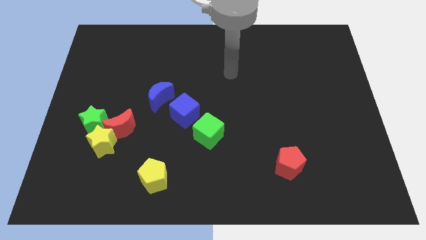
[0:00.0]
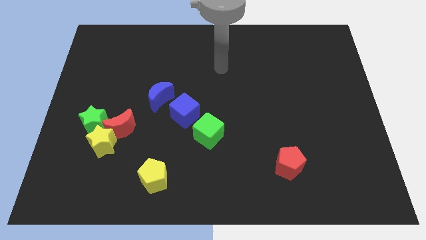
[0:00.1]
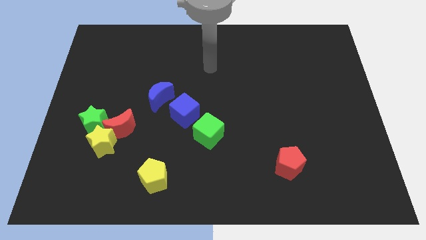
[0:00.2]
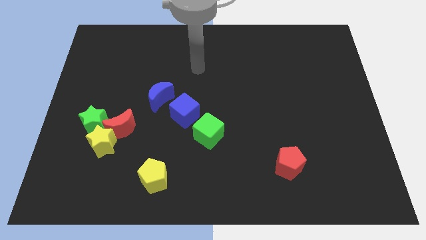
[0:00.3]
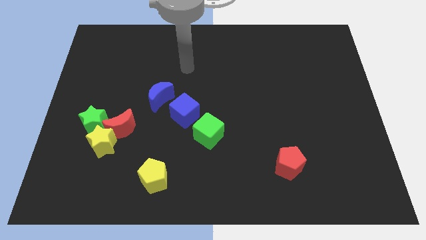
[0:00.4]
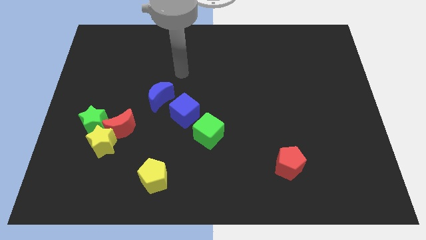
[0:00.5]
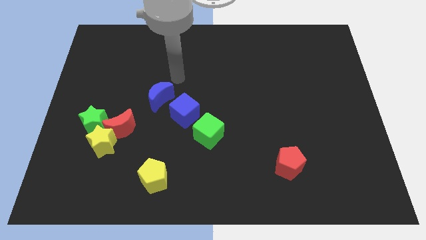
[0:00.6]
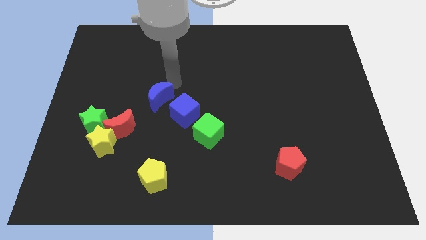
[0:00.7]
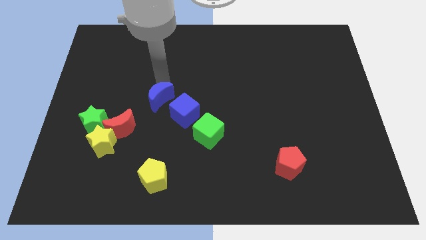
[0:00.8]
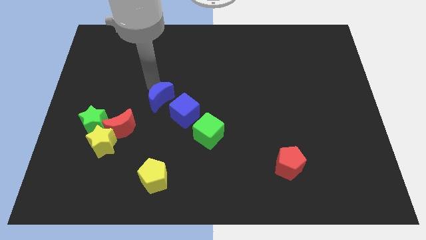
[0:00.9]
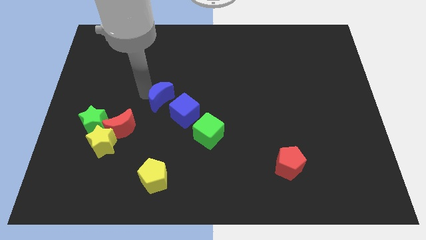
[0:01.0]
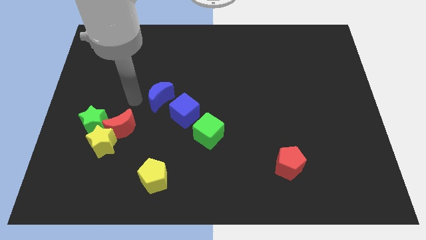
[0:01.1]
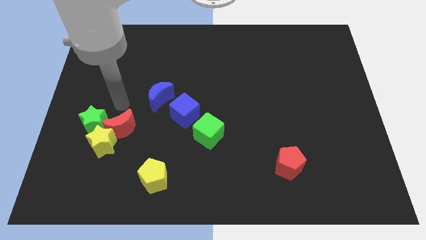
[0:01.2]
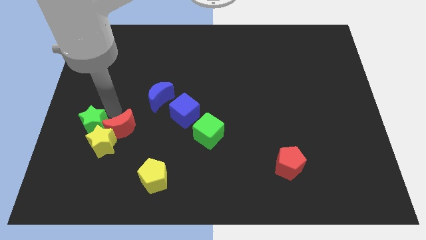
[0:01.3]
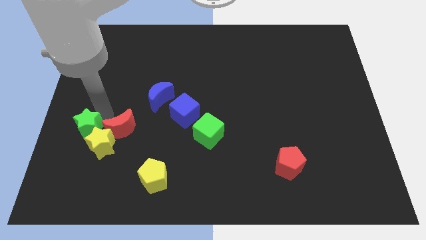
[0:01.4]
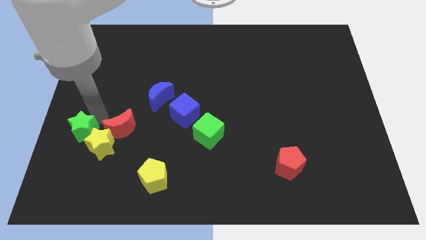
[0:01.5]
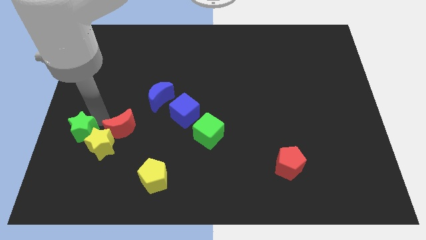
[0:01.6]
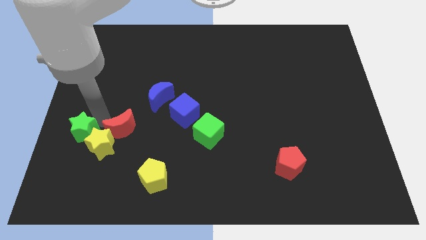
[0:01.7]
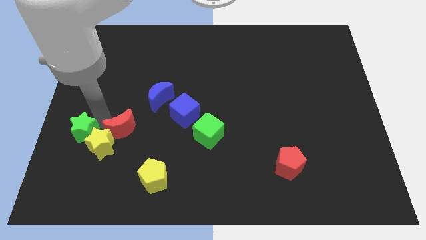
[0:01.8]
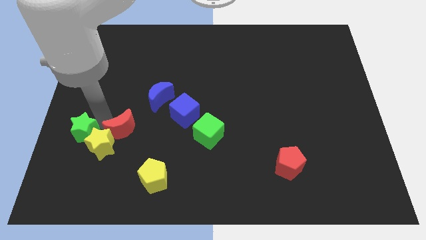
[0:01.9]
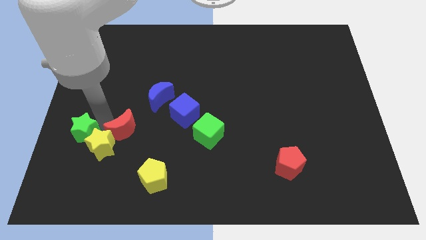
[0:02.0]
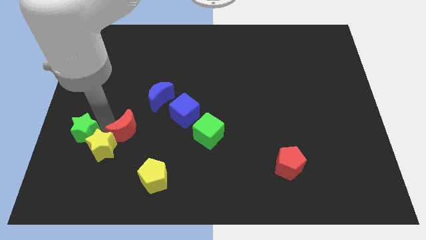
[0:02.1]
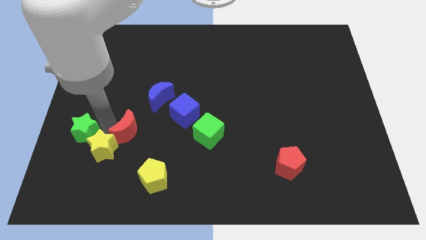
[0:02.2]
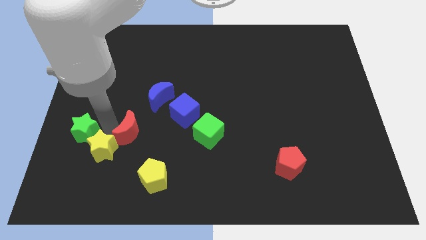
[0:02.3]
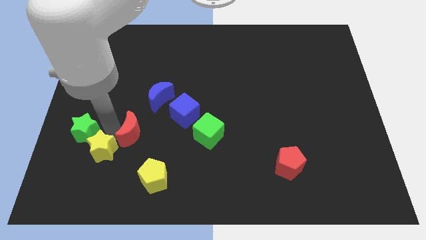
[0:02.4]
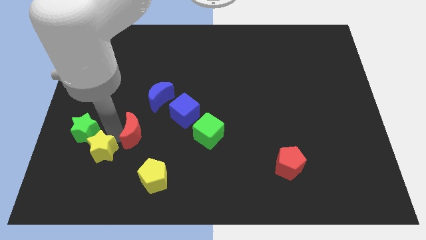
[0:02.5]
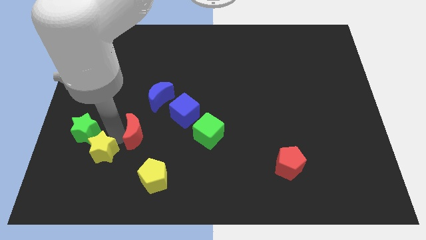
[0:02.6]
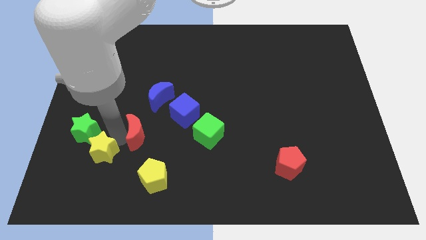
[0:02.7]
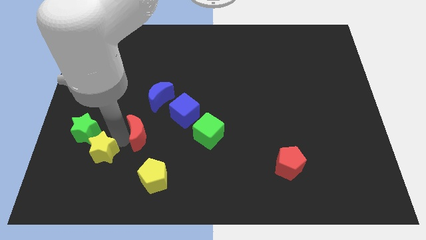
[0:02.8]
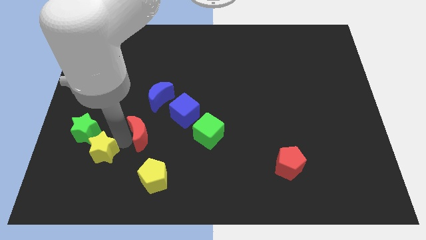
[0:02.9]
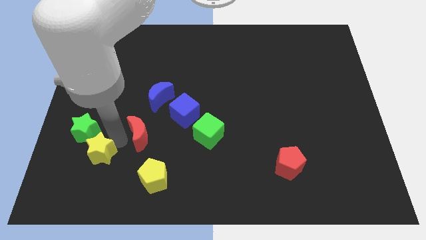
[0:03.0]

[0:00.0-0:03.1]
pull the red moon apart from the yellow star and green star

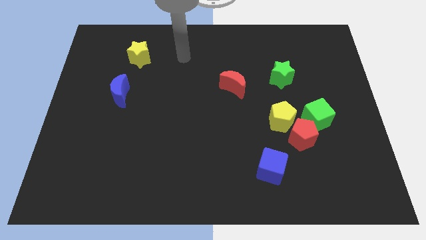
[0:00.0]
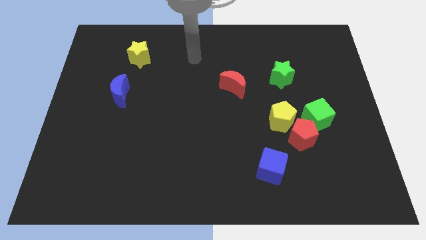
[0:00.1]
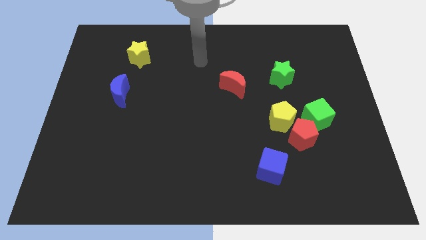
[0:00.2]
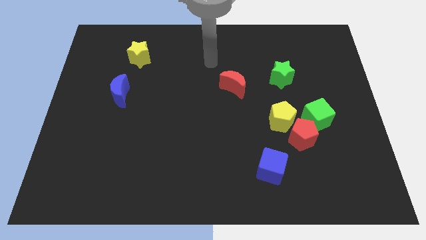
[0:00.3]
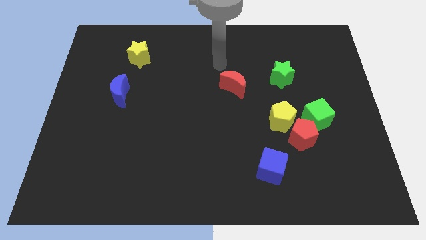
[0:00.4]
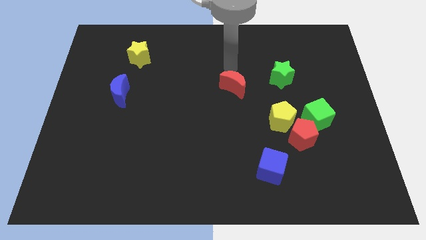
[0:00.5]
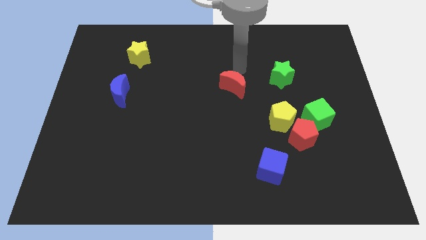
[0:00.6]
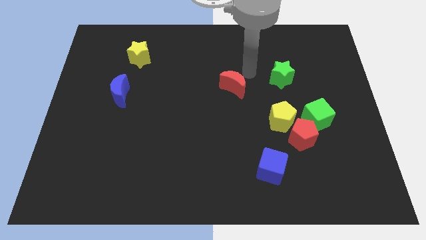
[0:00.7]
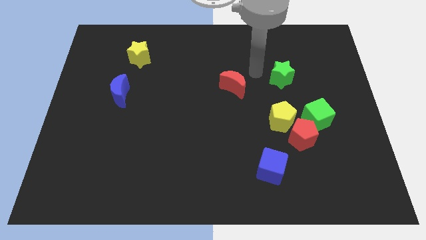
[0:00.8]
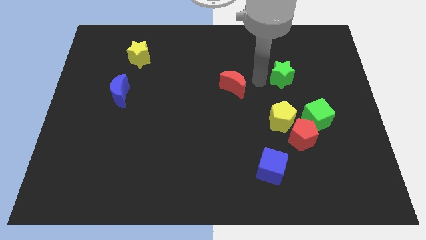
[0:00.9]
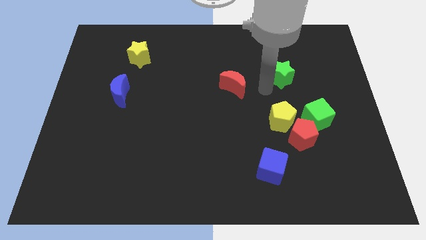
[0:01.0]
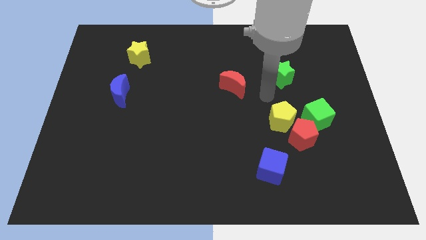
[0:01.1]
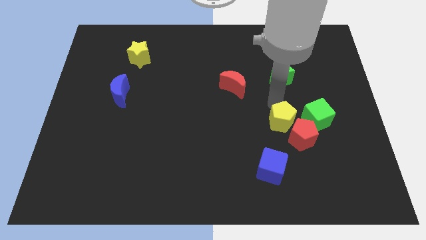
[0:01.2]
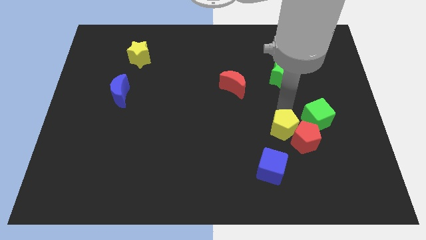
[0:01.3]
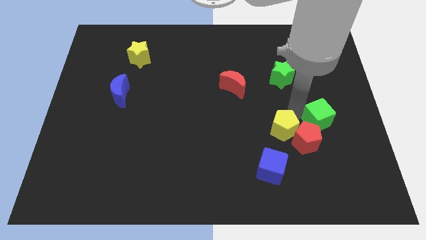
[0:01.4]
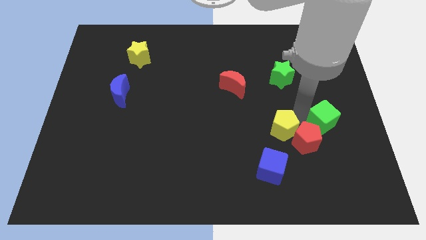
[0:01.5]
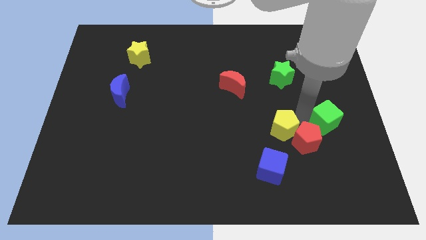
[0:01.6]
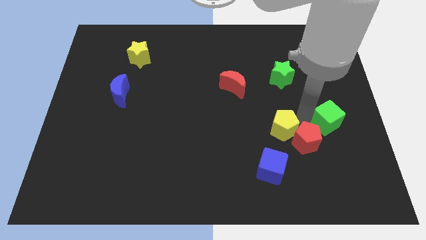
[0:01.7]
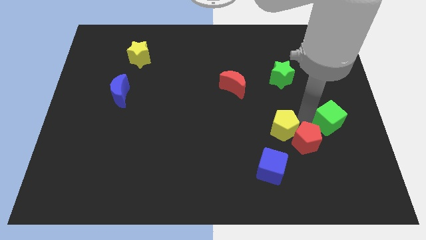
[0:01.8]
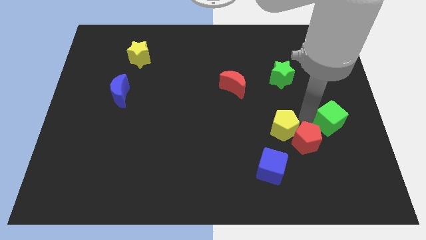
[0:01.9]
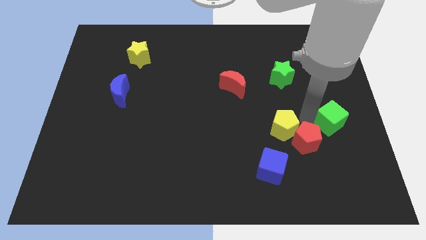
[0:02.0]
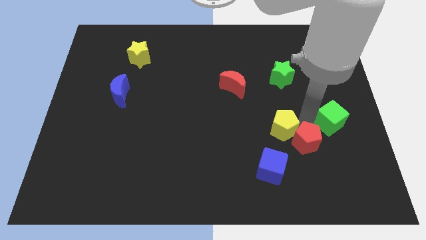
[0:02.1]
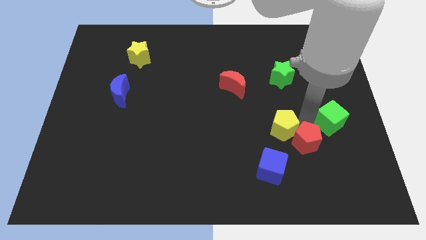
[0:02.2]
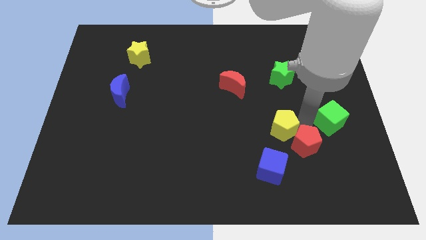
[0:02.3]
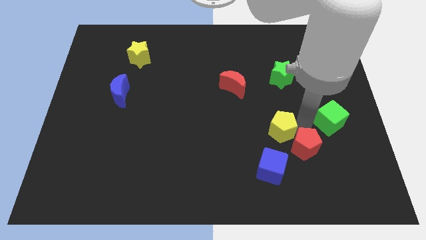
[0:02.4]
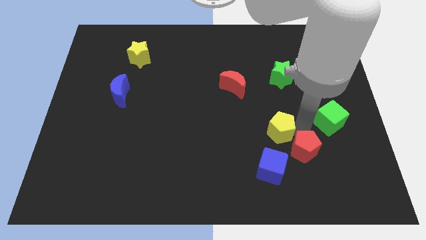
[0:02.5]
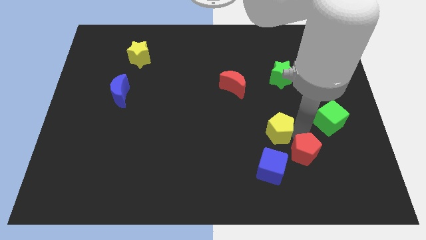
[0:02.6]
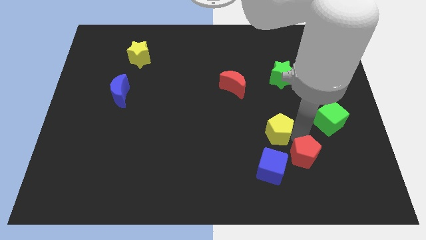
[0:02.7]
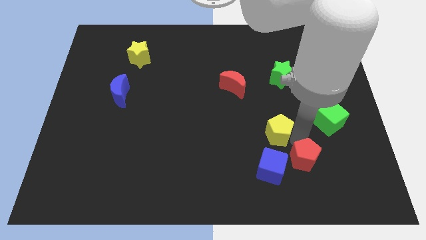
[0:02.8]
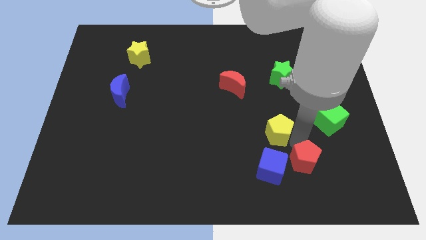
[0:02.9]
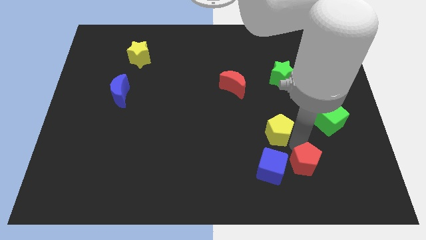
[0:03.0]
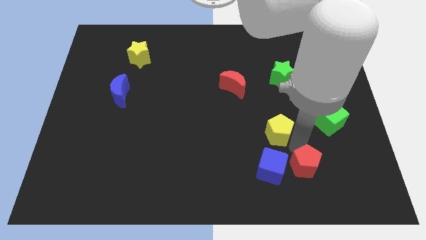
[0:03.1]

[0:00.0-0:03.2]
separate the red pentagon from the yellow pentagon and green cube

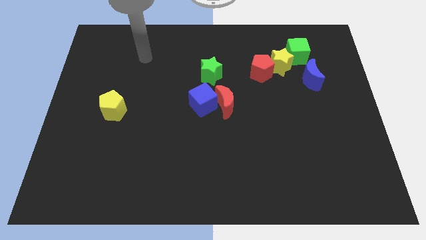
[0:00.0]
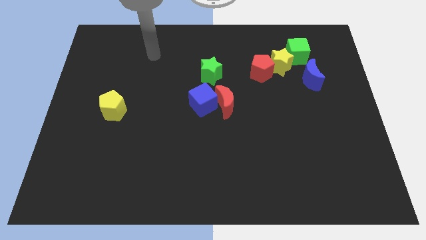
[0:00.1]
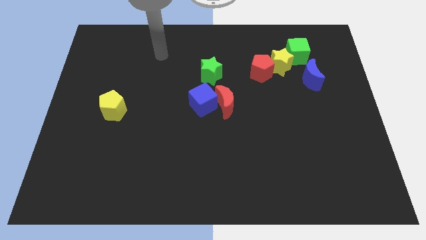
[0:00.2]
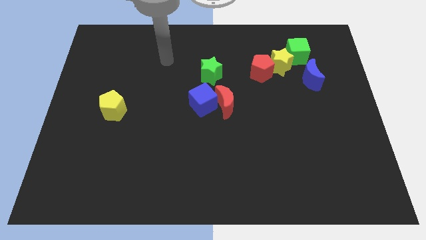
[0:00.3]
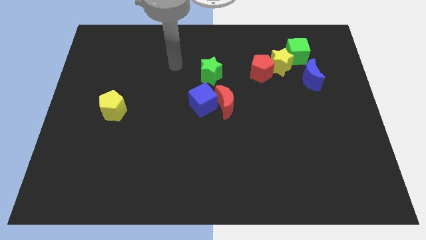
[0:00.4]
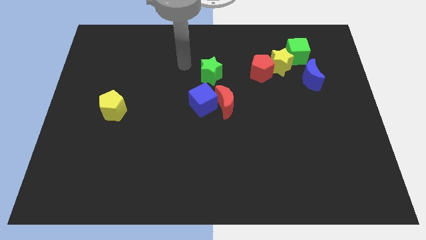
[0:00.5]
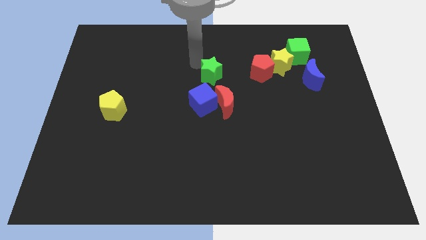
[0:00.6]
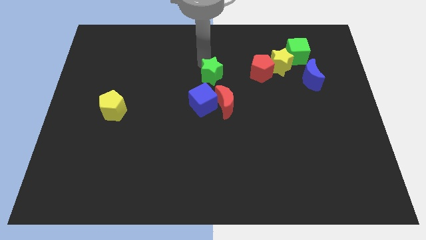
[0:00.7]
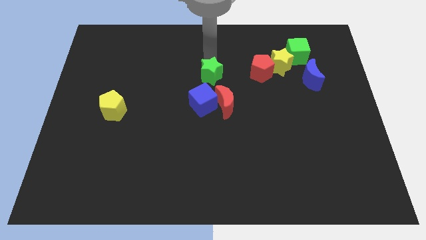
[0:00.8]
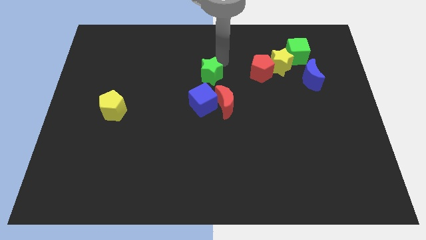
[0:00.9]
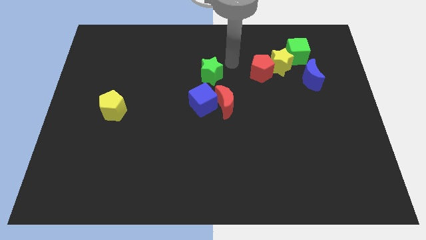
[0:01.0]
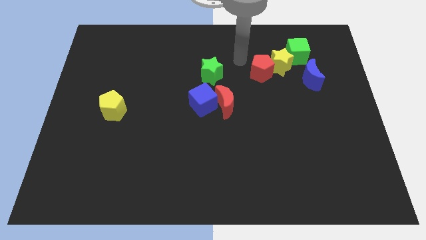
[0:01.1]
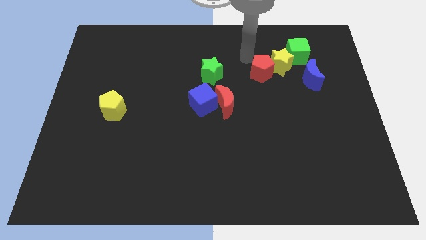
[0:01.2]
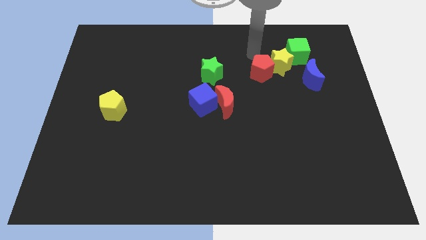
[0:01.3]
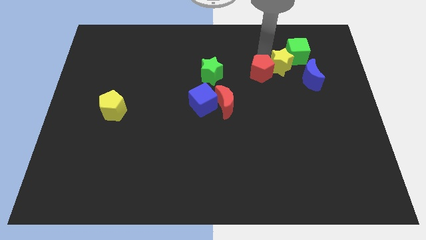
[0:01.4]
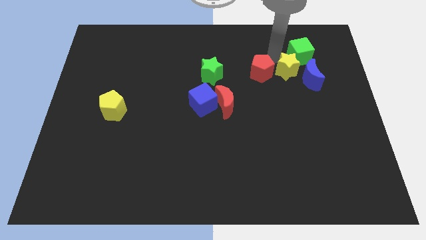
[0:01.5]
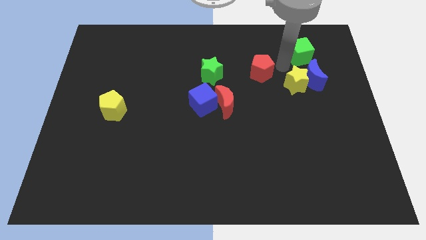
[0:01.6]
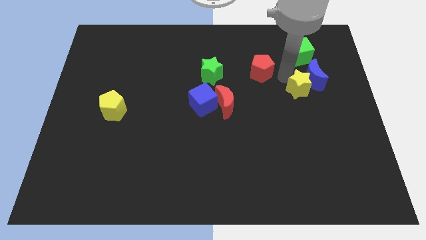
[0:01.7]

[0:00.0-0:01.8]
pull the red pentagon apart from the yellow star

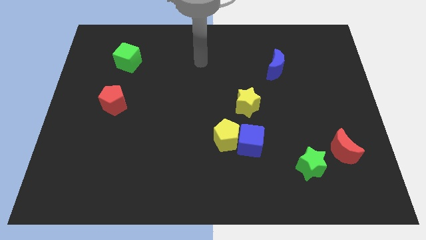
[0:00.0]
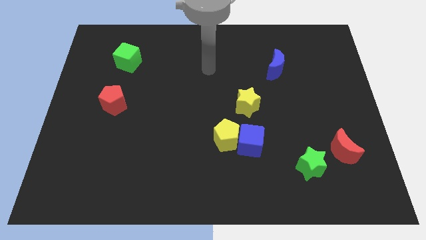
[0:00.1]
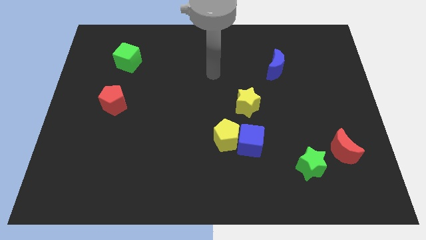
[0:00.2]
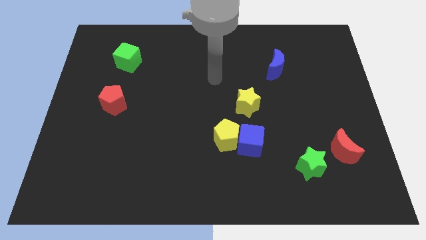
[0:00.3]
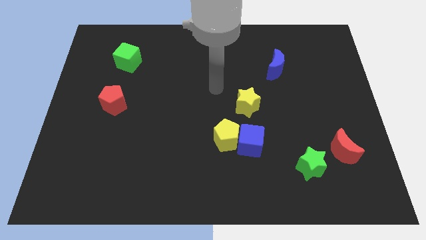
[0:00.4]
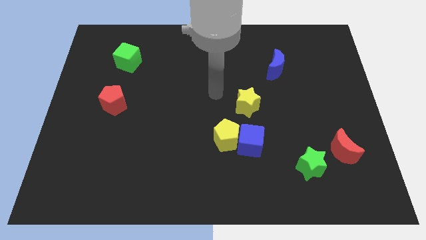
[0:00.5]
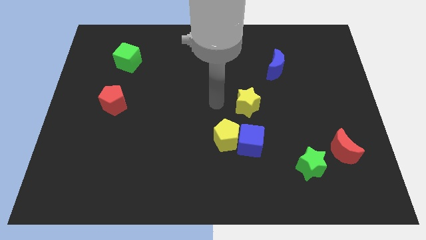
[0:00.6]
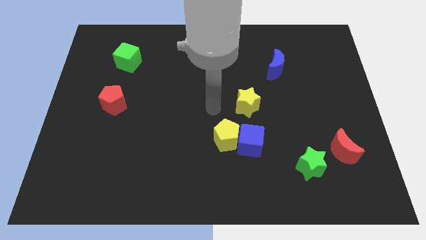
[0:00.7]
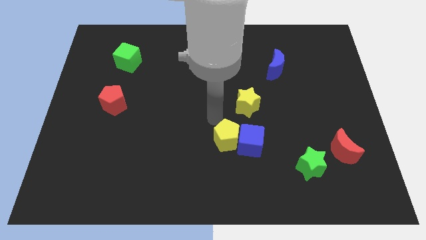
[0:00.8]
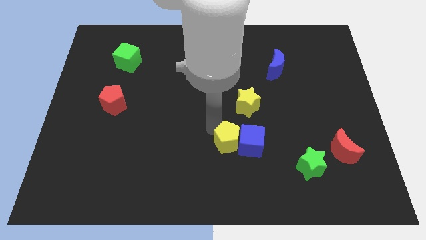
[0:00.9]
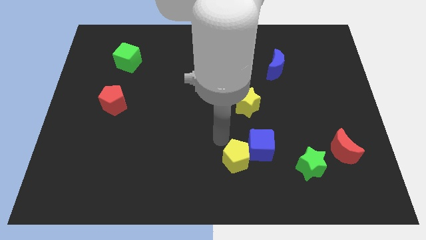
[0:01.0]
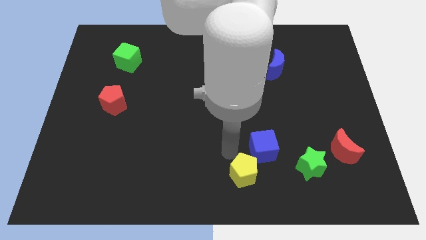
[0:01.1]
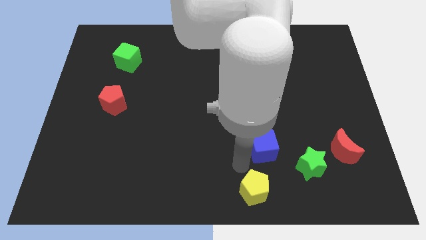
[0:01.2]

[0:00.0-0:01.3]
separate the blue cube from the yellow pentagon
